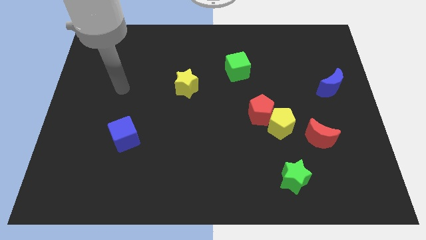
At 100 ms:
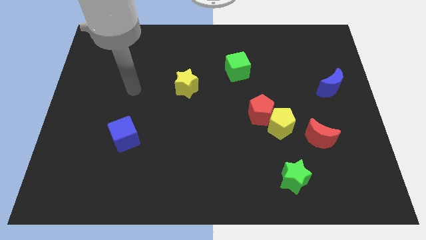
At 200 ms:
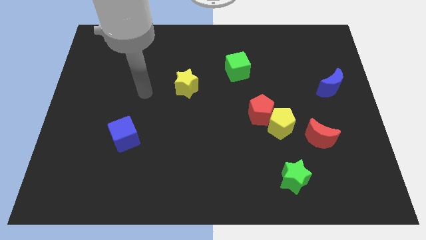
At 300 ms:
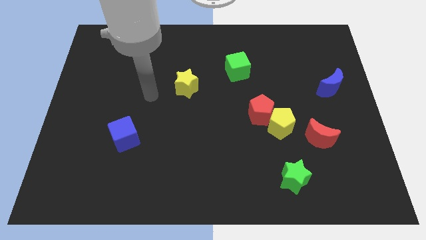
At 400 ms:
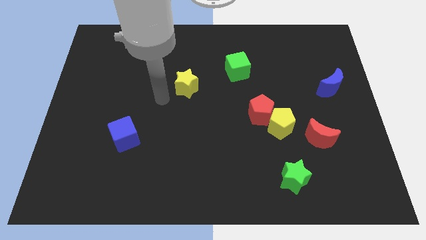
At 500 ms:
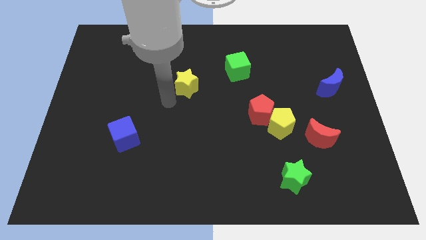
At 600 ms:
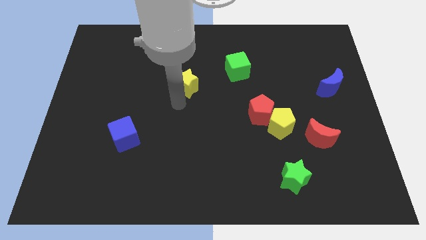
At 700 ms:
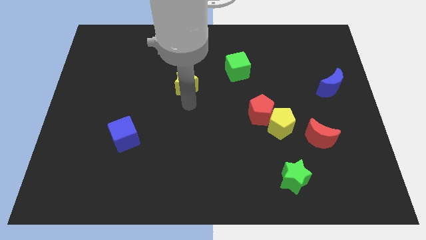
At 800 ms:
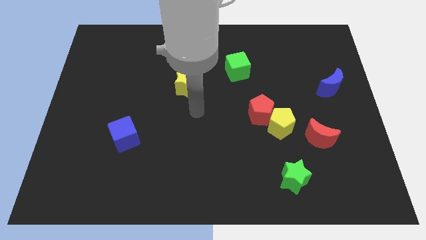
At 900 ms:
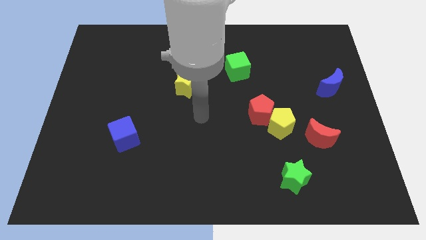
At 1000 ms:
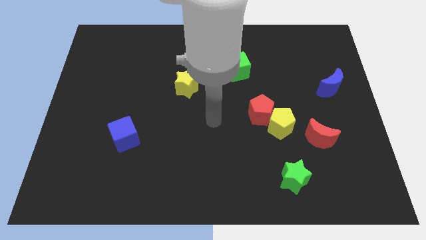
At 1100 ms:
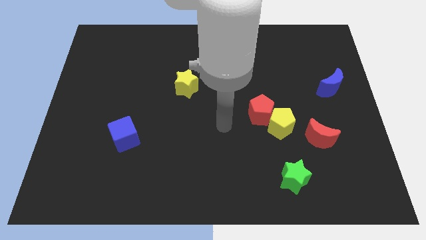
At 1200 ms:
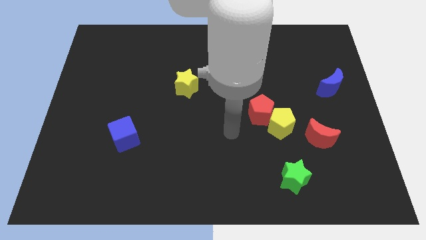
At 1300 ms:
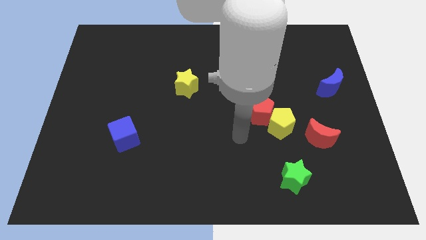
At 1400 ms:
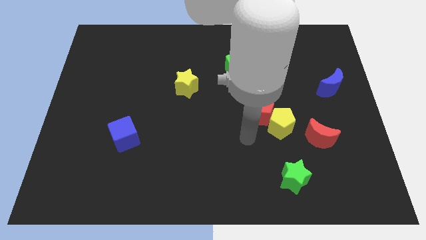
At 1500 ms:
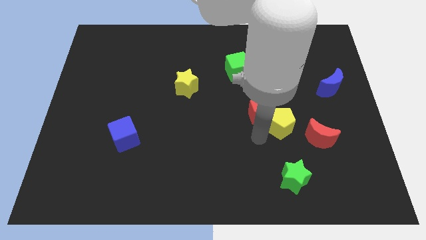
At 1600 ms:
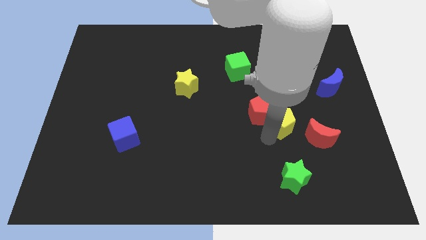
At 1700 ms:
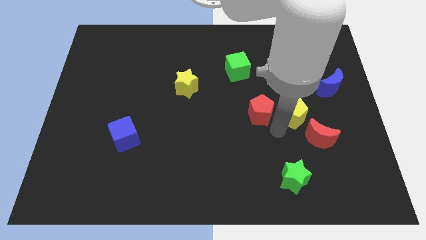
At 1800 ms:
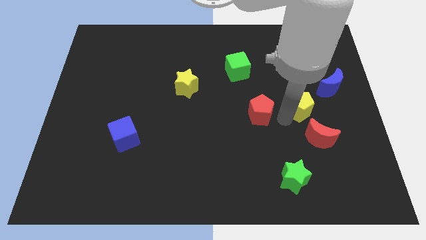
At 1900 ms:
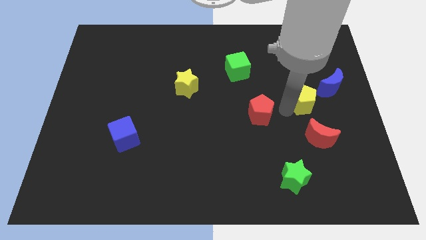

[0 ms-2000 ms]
separate the red pentagon from the yellow pentagon

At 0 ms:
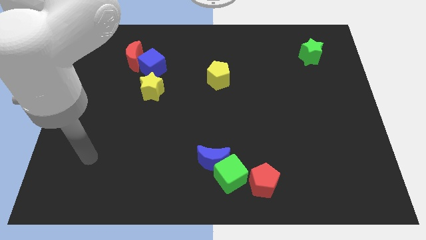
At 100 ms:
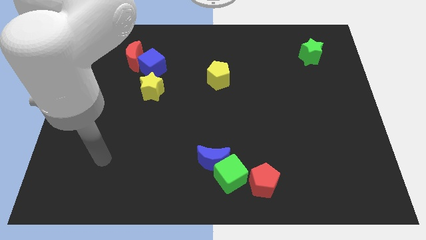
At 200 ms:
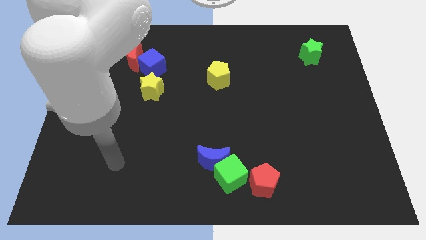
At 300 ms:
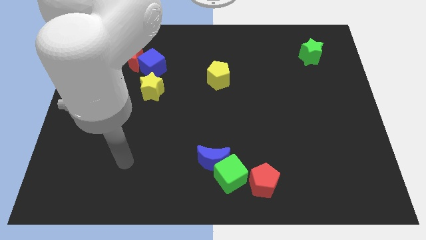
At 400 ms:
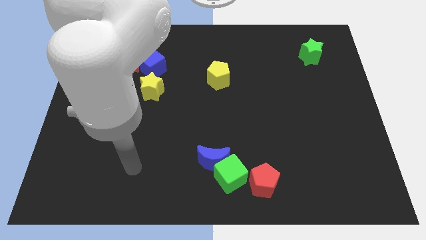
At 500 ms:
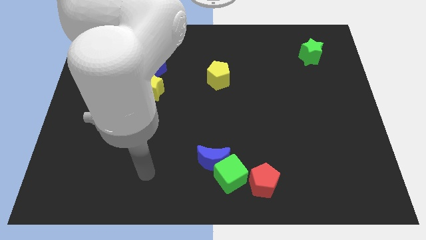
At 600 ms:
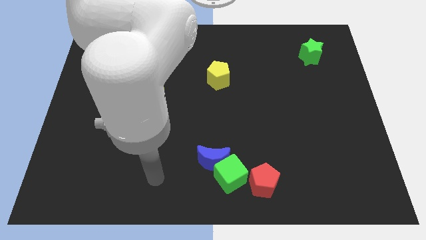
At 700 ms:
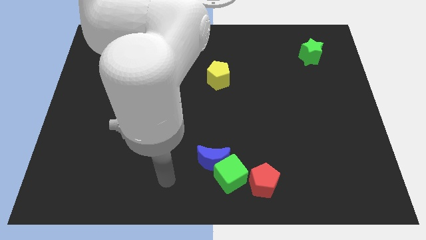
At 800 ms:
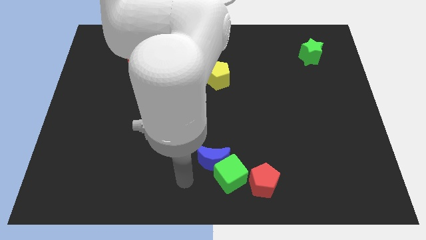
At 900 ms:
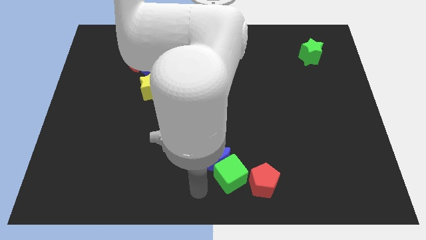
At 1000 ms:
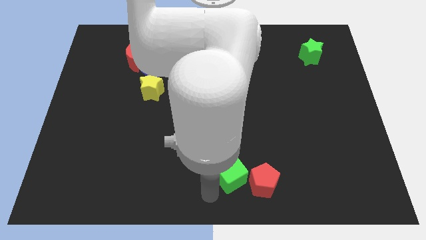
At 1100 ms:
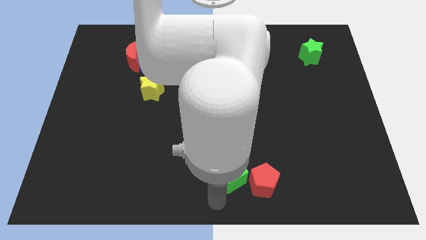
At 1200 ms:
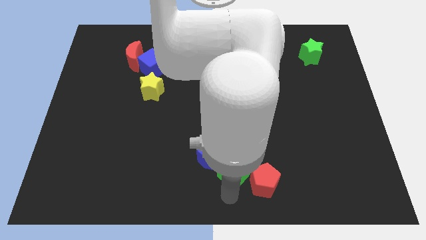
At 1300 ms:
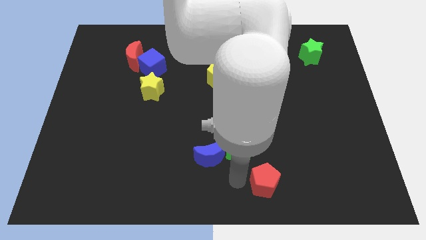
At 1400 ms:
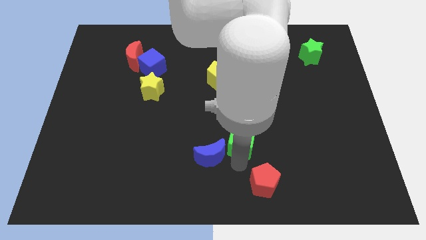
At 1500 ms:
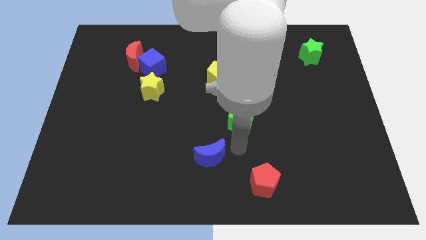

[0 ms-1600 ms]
separate the blue moon from the green cube

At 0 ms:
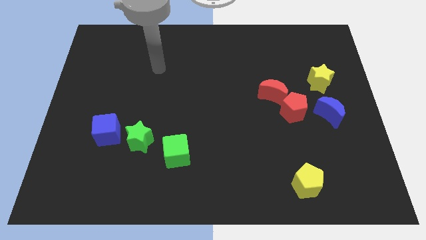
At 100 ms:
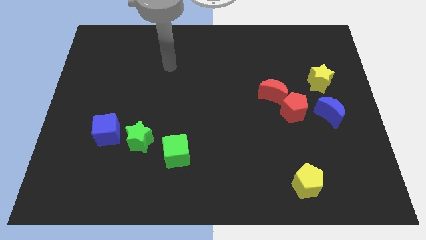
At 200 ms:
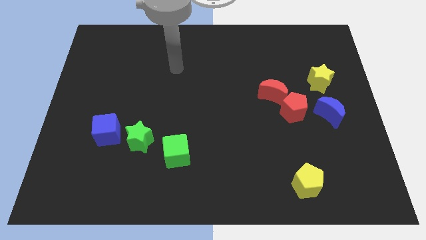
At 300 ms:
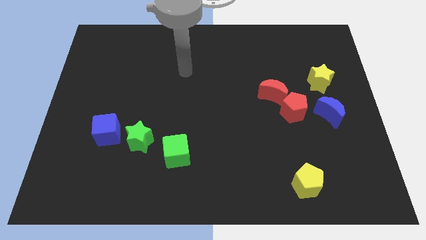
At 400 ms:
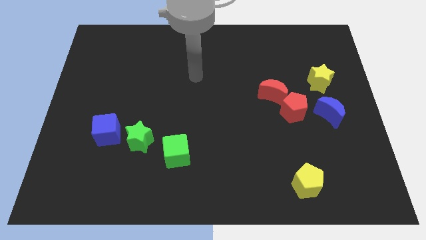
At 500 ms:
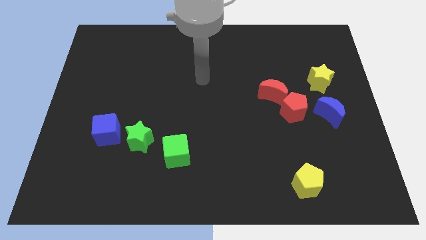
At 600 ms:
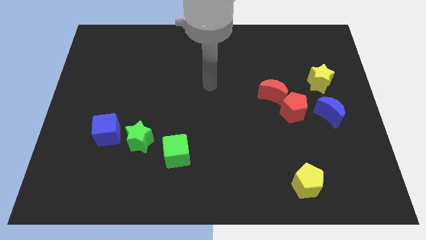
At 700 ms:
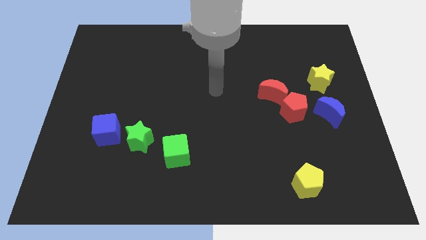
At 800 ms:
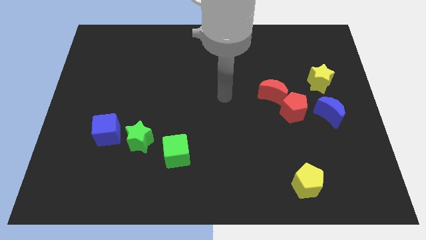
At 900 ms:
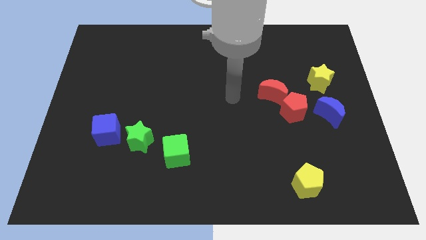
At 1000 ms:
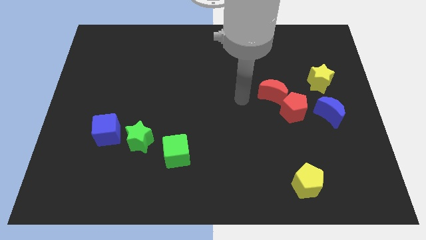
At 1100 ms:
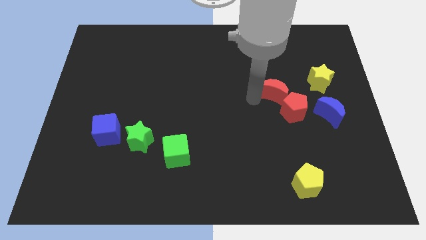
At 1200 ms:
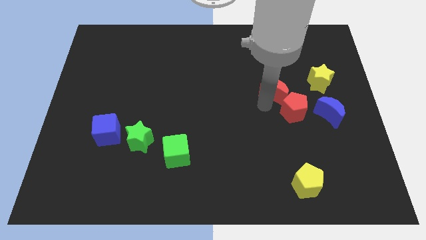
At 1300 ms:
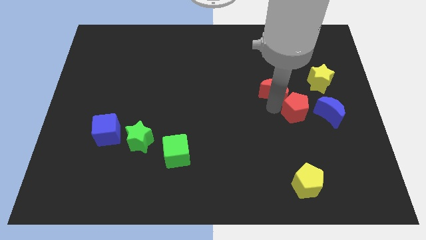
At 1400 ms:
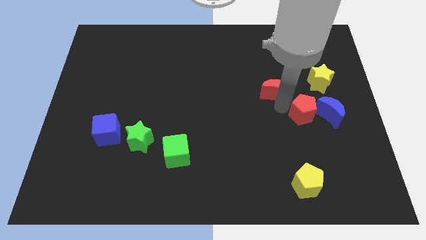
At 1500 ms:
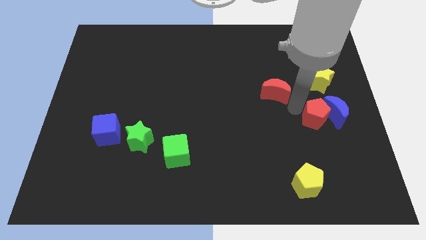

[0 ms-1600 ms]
move the red moon away from the red pentagon

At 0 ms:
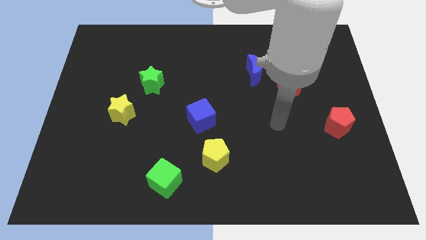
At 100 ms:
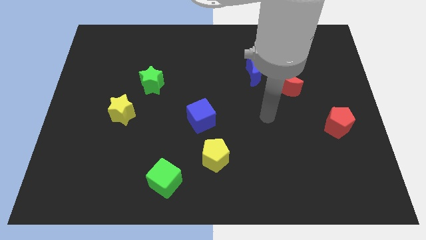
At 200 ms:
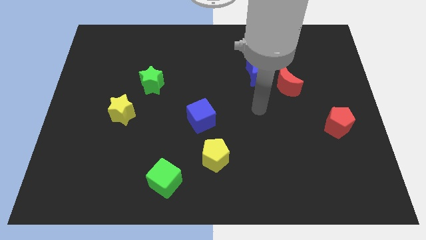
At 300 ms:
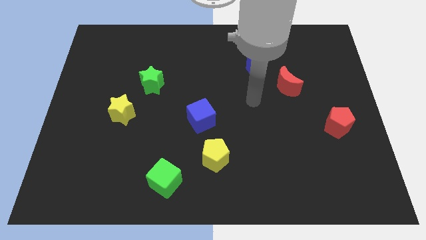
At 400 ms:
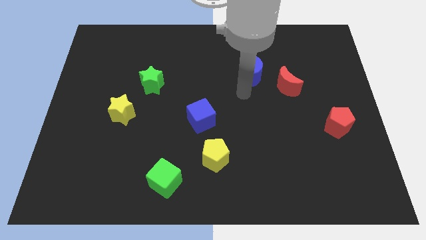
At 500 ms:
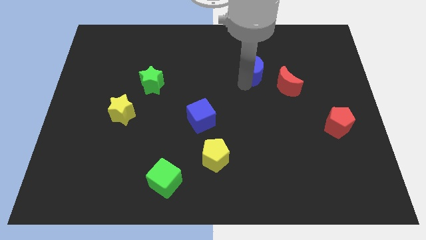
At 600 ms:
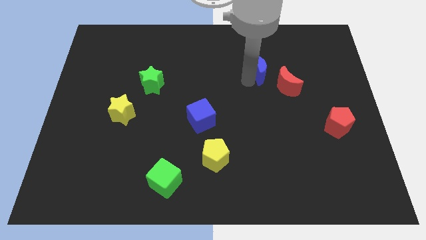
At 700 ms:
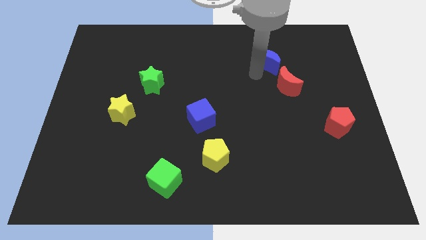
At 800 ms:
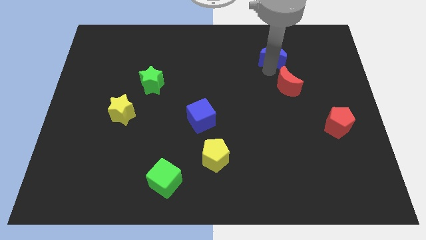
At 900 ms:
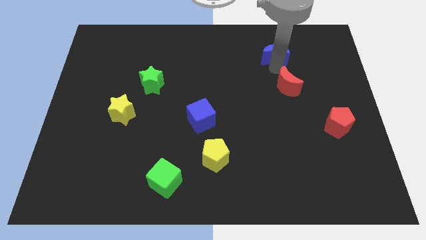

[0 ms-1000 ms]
separate the red moon from the blue moon

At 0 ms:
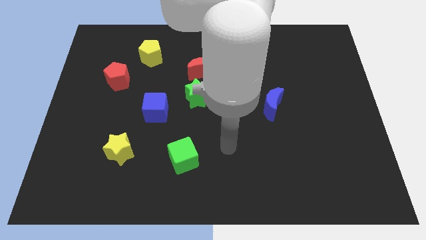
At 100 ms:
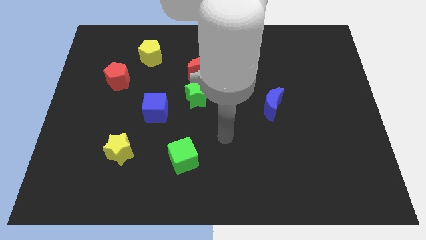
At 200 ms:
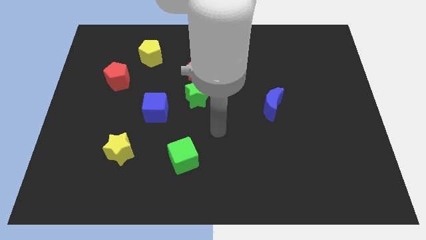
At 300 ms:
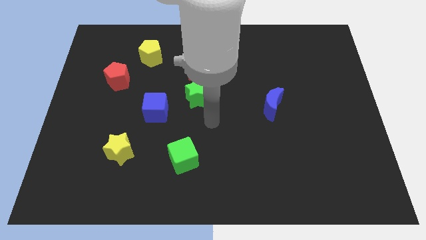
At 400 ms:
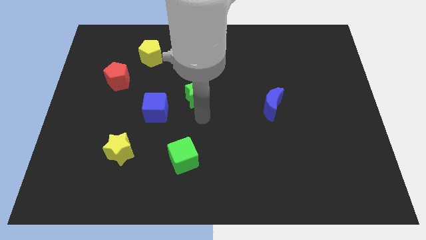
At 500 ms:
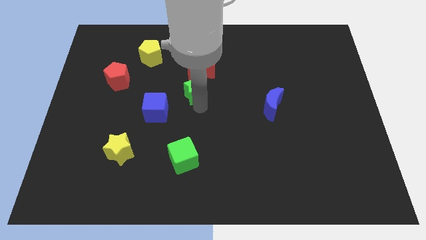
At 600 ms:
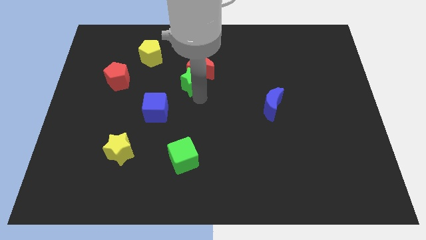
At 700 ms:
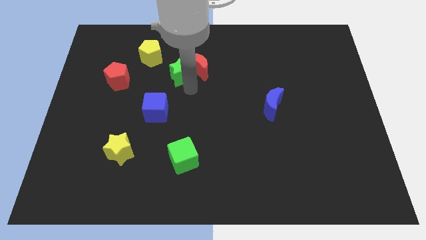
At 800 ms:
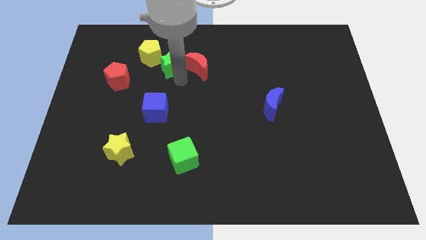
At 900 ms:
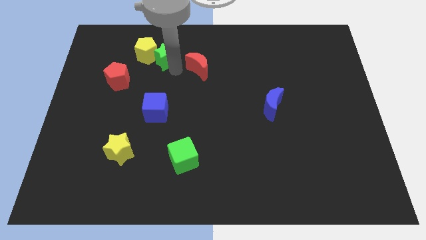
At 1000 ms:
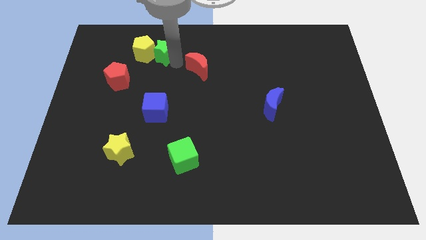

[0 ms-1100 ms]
pull the red moon apart from the green star

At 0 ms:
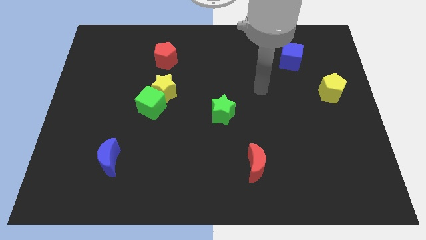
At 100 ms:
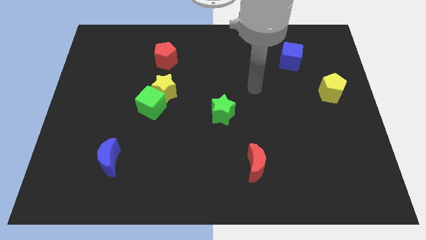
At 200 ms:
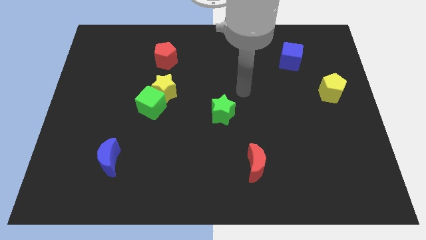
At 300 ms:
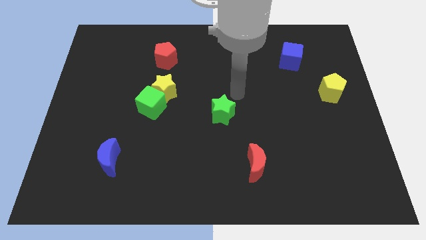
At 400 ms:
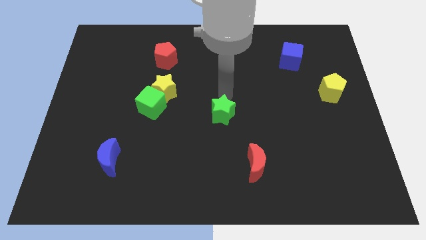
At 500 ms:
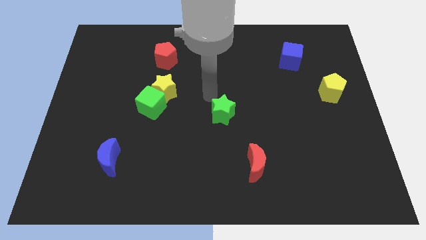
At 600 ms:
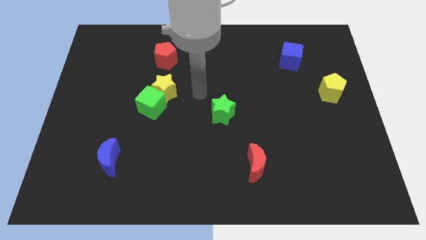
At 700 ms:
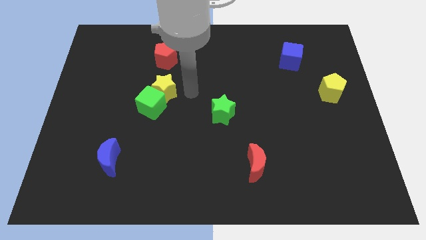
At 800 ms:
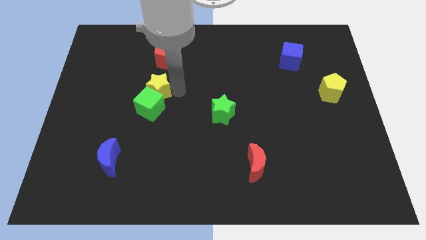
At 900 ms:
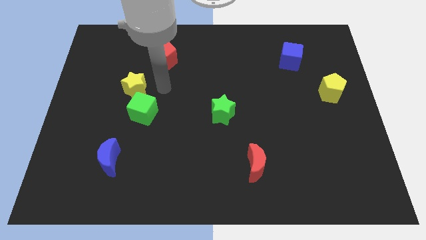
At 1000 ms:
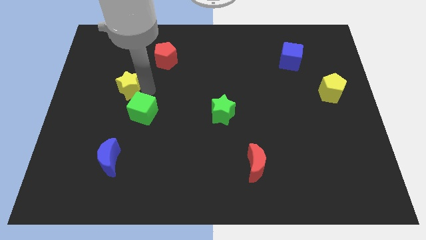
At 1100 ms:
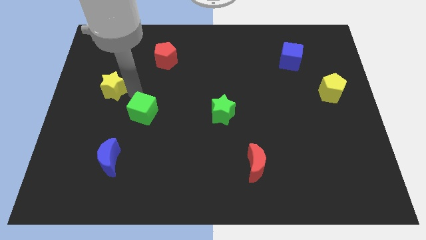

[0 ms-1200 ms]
move the green cube away from the yellow star

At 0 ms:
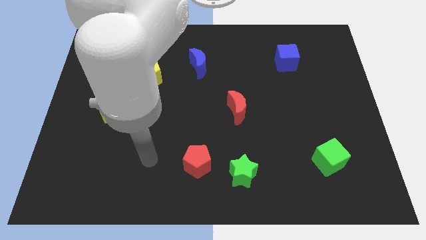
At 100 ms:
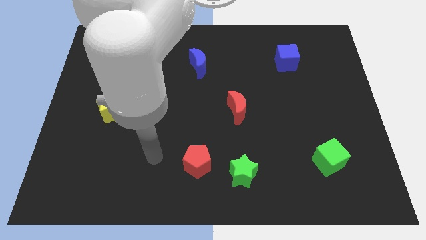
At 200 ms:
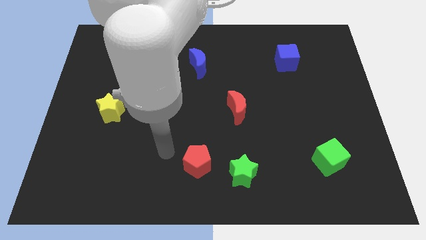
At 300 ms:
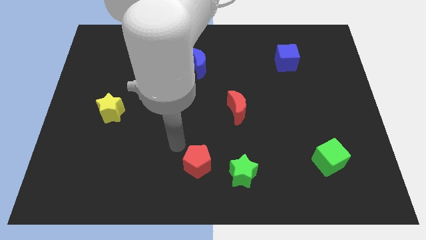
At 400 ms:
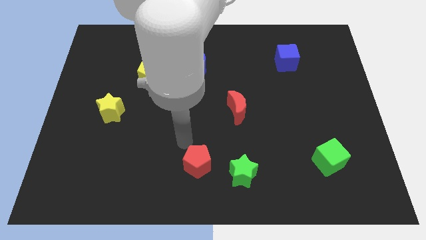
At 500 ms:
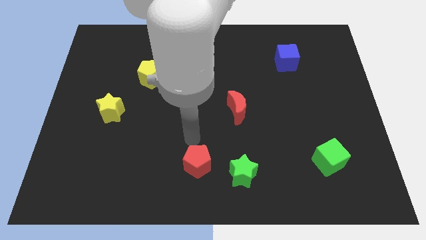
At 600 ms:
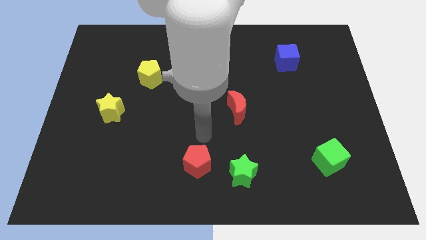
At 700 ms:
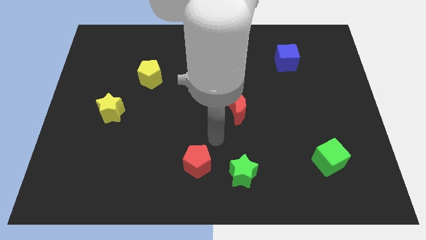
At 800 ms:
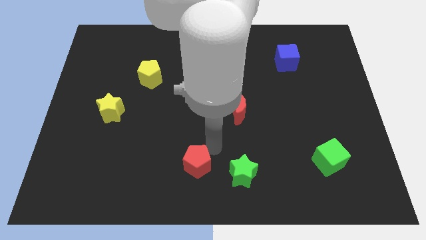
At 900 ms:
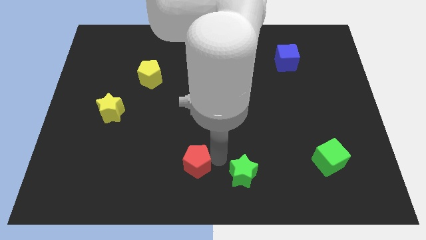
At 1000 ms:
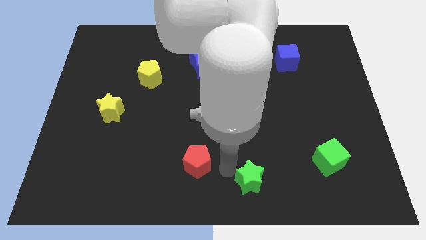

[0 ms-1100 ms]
separate the red pentagon from the green star
